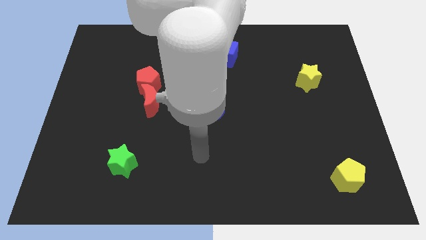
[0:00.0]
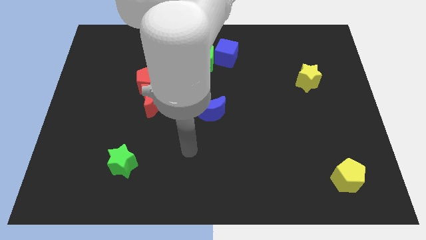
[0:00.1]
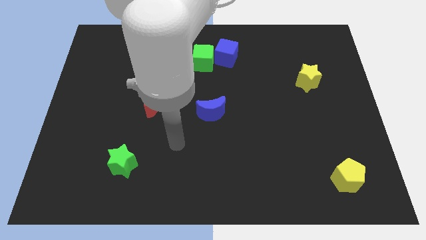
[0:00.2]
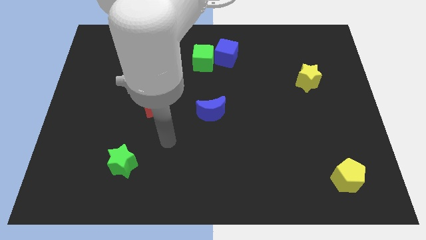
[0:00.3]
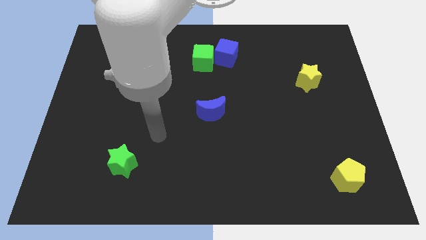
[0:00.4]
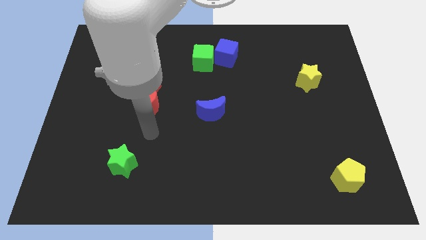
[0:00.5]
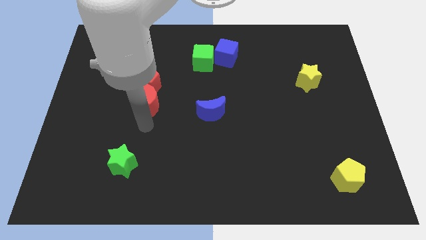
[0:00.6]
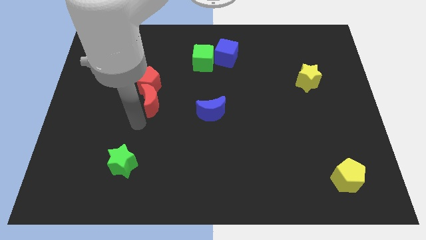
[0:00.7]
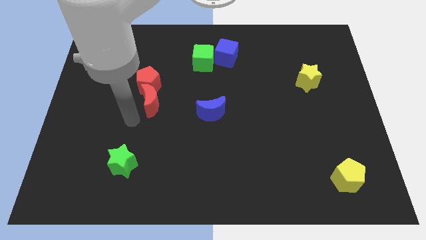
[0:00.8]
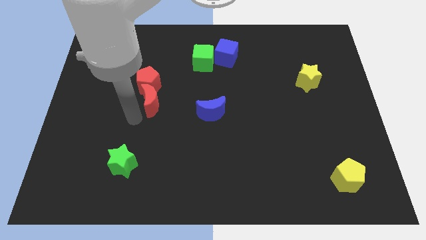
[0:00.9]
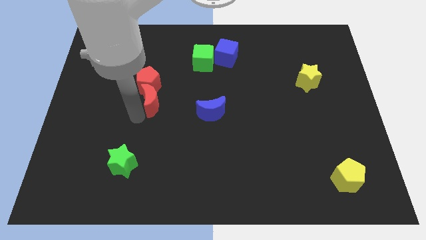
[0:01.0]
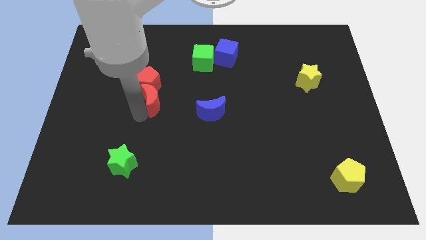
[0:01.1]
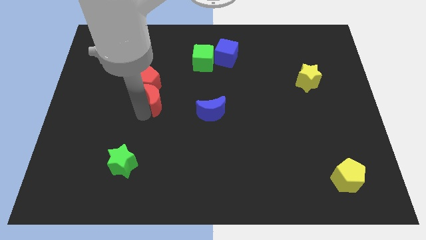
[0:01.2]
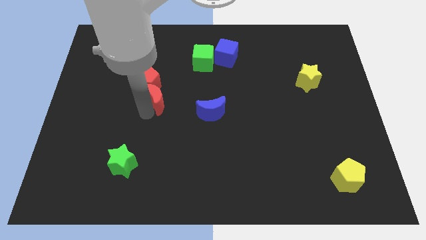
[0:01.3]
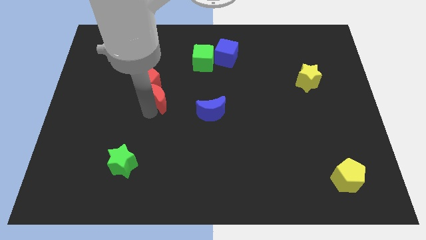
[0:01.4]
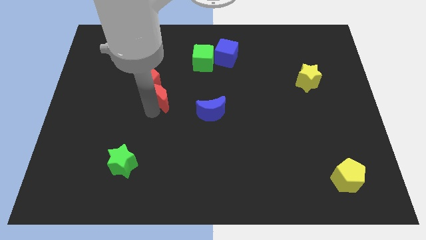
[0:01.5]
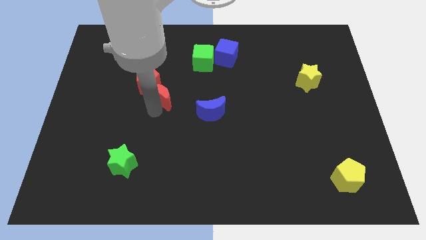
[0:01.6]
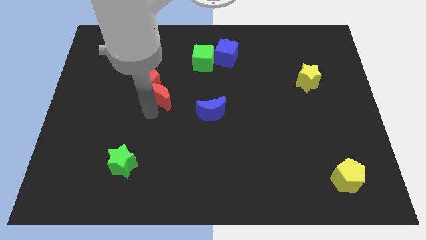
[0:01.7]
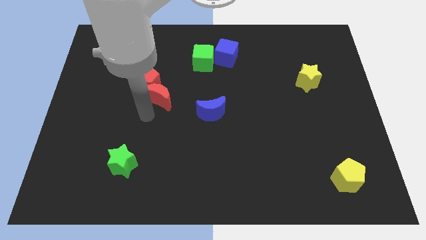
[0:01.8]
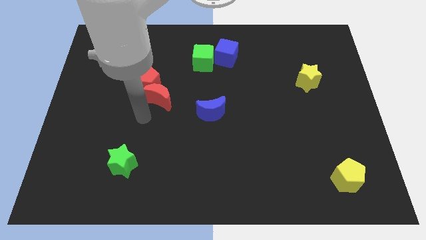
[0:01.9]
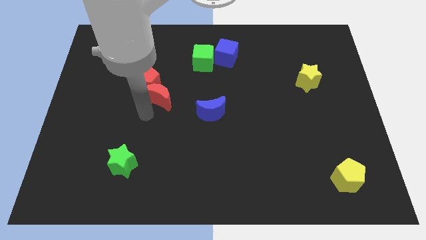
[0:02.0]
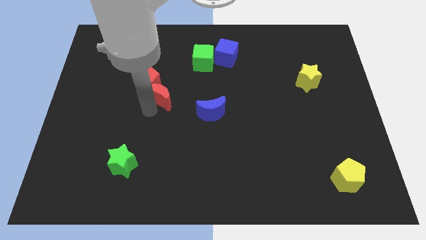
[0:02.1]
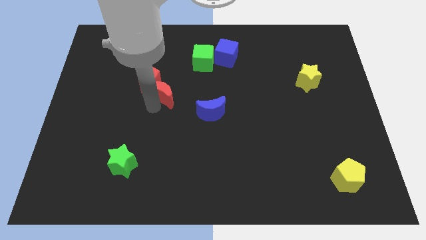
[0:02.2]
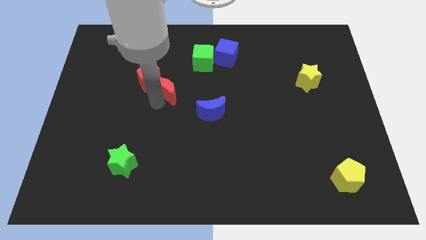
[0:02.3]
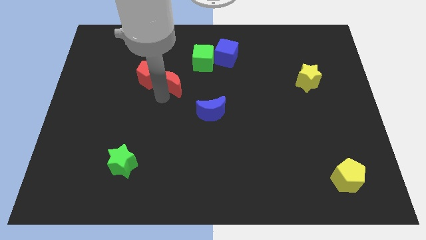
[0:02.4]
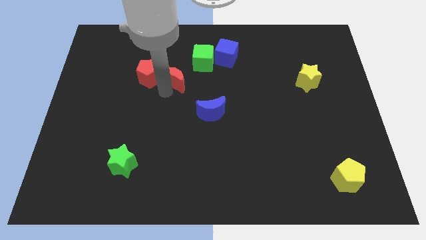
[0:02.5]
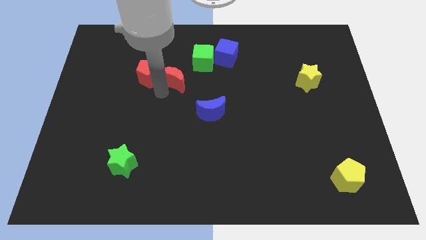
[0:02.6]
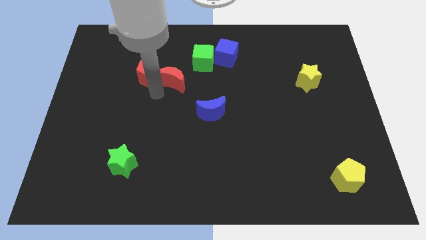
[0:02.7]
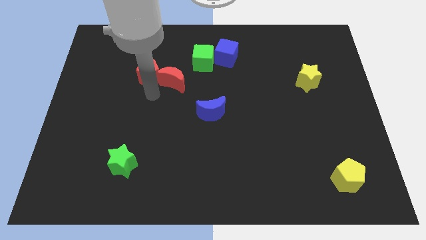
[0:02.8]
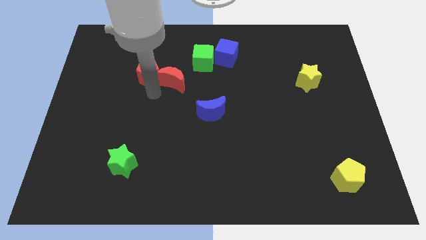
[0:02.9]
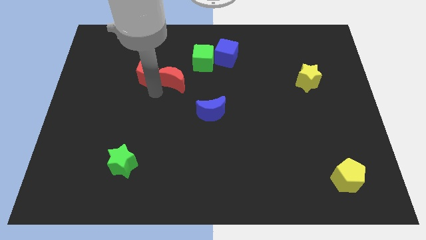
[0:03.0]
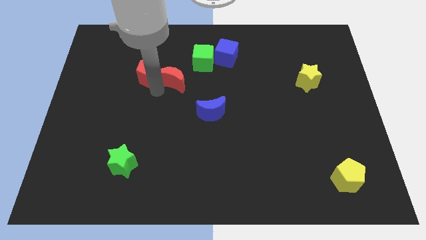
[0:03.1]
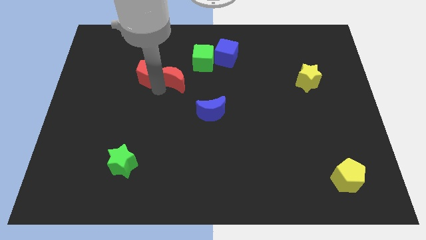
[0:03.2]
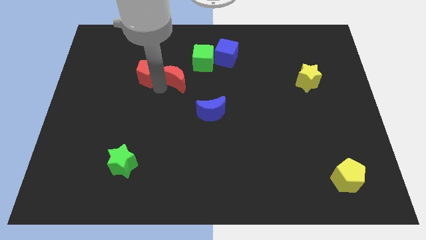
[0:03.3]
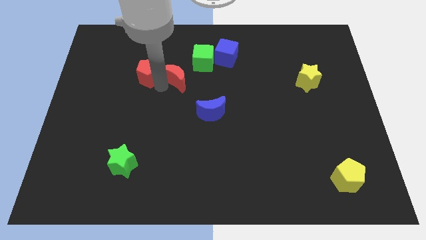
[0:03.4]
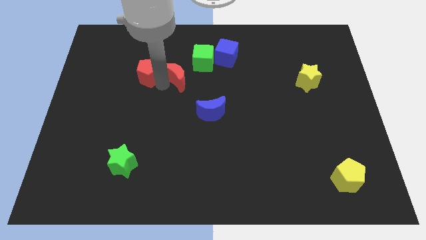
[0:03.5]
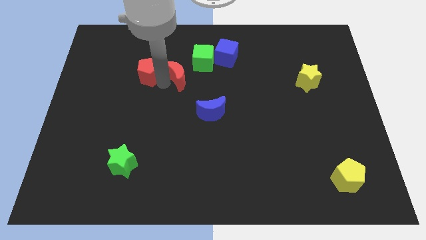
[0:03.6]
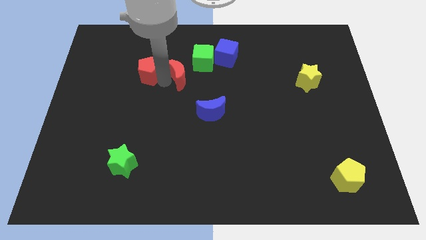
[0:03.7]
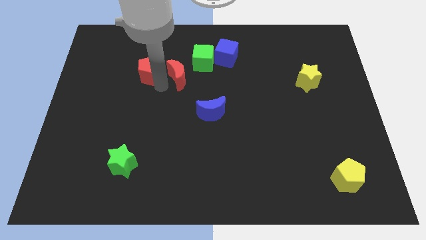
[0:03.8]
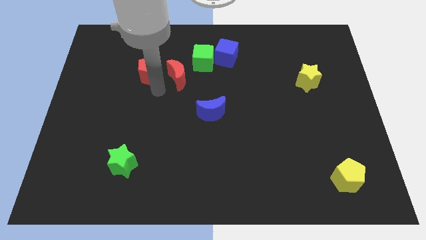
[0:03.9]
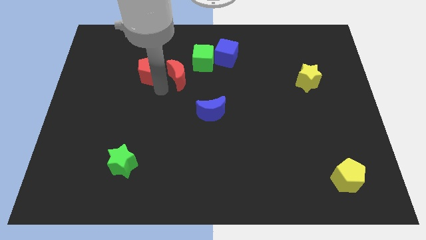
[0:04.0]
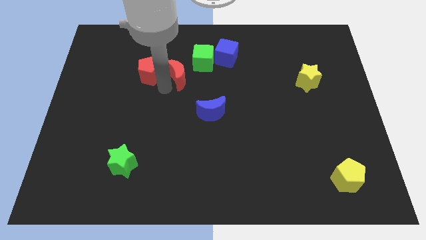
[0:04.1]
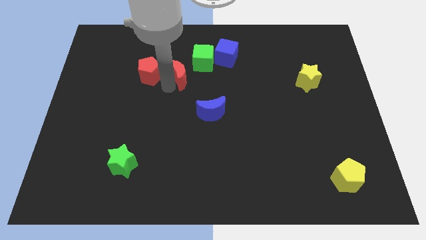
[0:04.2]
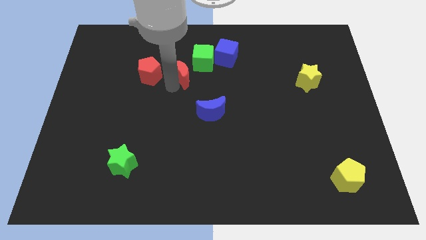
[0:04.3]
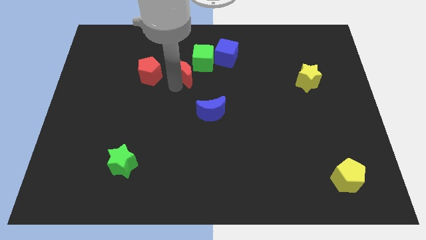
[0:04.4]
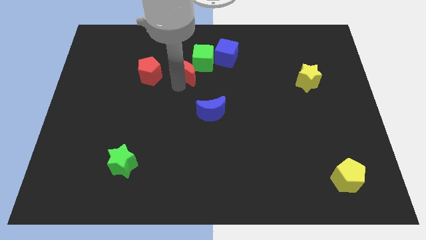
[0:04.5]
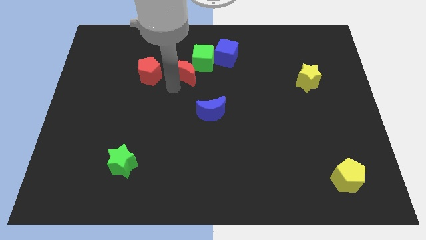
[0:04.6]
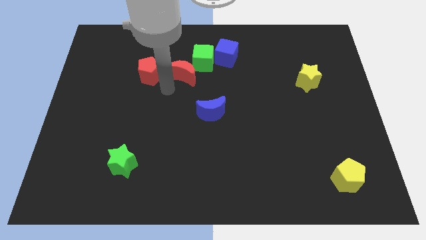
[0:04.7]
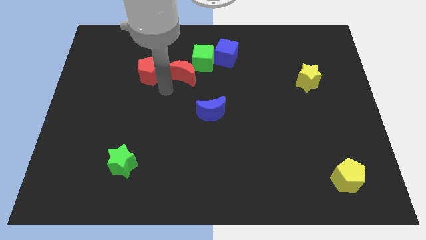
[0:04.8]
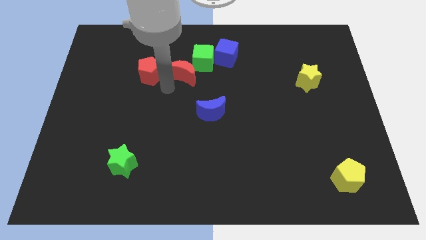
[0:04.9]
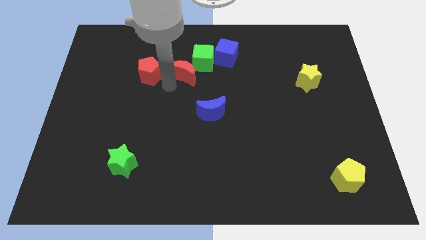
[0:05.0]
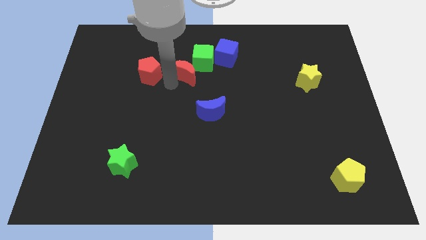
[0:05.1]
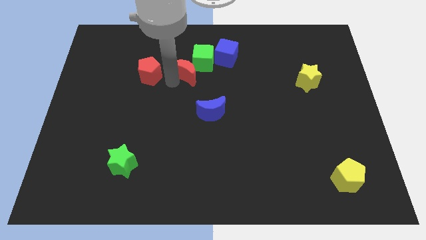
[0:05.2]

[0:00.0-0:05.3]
put the red moon towards the green cube

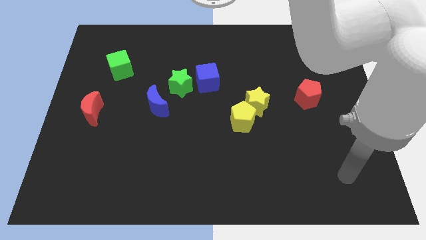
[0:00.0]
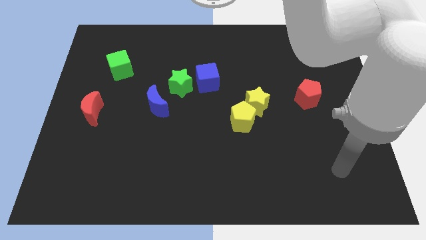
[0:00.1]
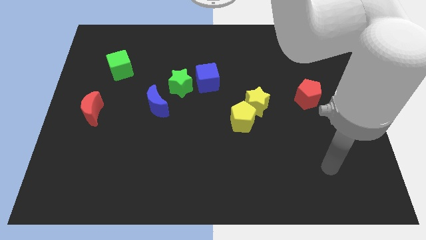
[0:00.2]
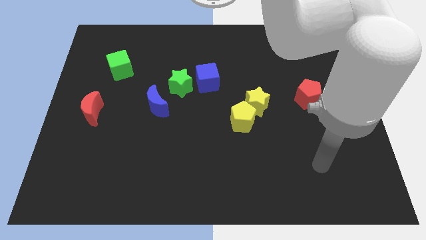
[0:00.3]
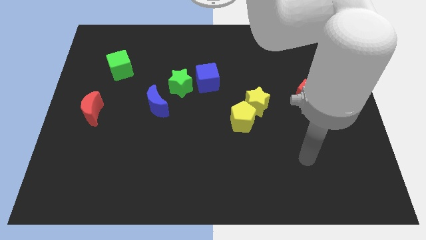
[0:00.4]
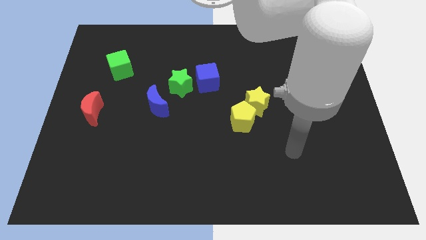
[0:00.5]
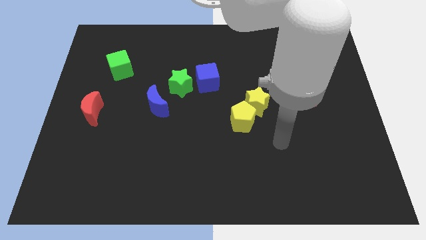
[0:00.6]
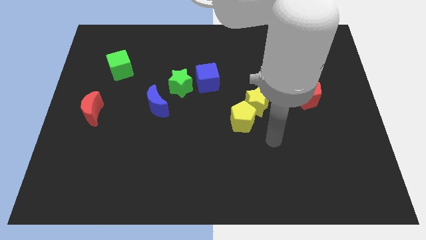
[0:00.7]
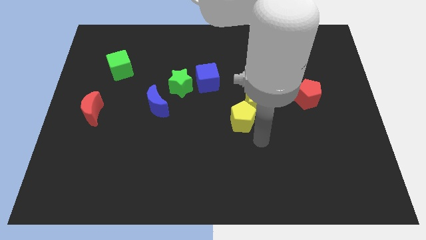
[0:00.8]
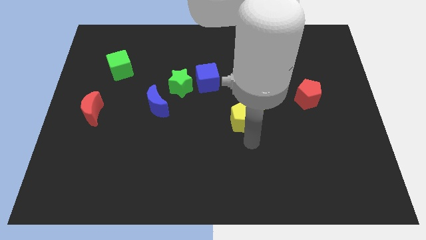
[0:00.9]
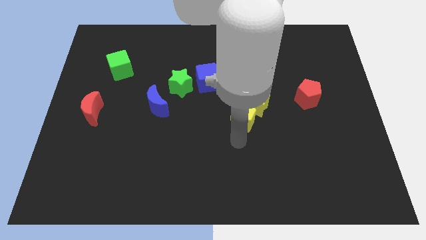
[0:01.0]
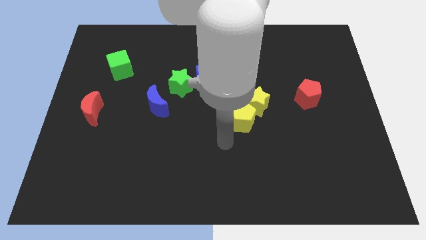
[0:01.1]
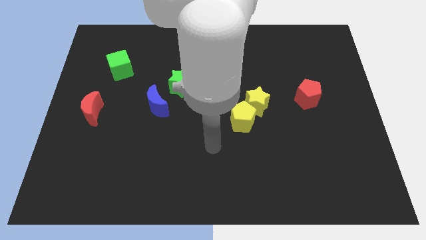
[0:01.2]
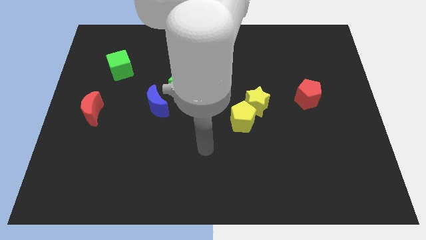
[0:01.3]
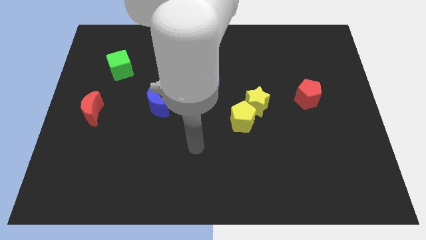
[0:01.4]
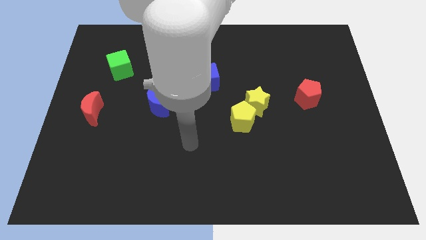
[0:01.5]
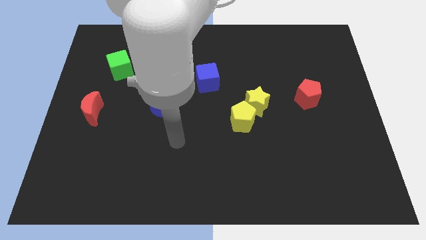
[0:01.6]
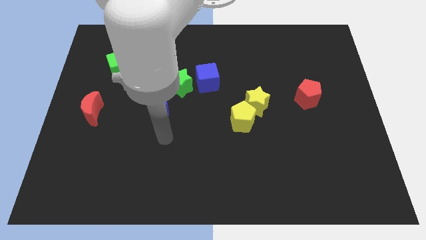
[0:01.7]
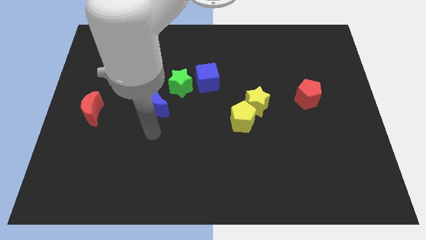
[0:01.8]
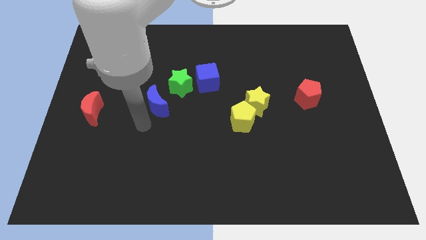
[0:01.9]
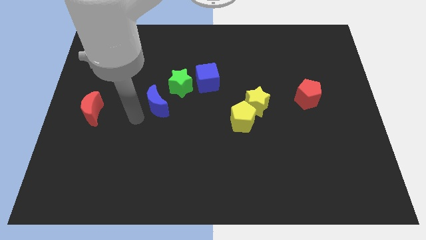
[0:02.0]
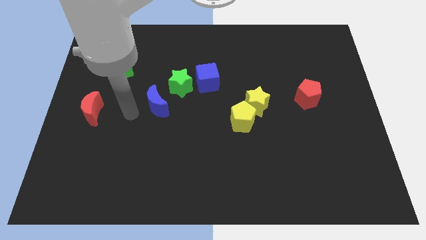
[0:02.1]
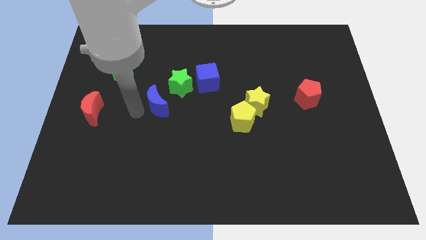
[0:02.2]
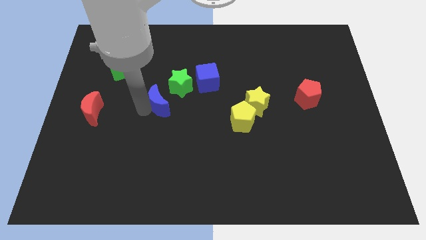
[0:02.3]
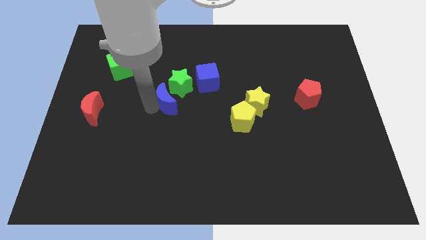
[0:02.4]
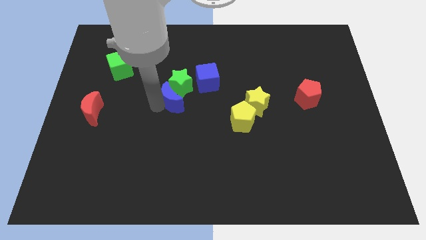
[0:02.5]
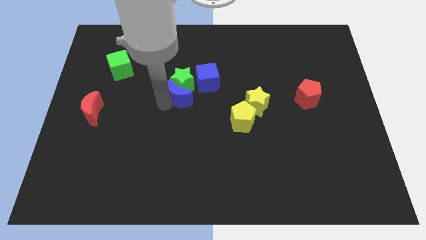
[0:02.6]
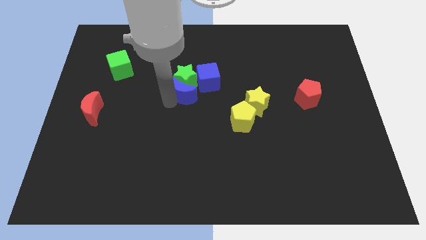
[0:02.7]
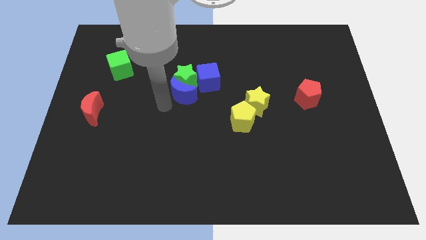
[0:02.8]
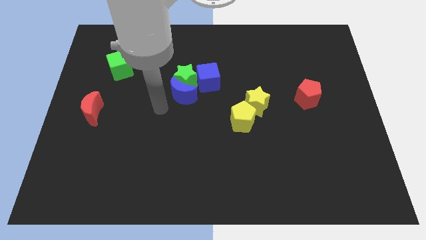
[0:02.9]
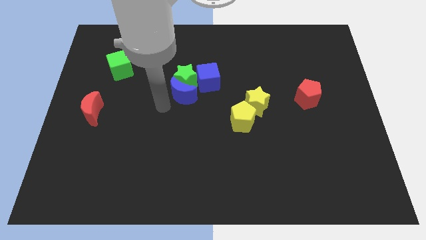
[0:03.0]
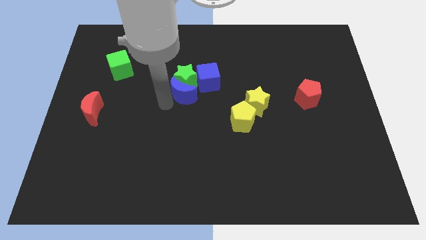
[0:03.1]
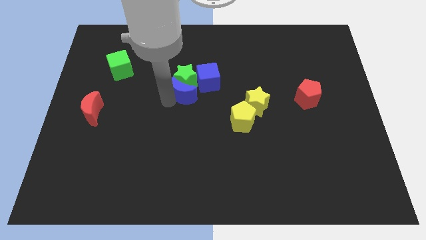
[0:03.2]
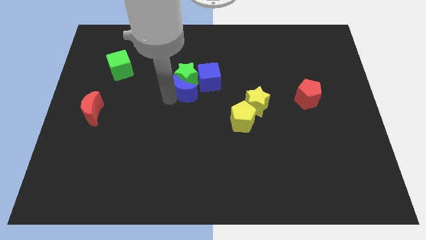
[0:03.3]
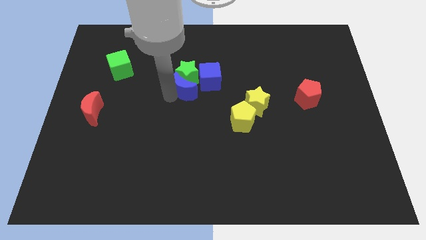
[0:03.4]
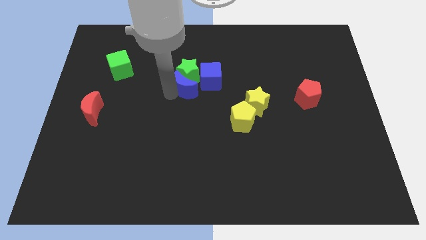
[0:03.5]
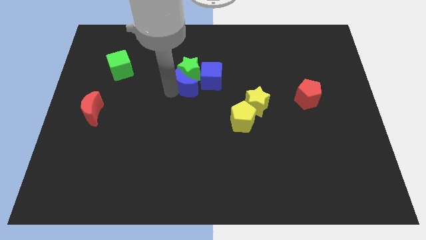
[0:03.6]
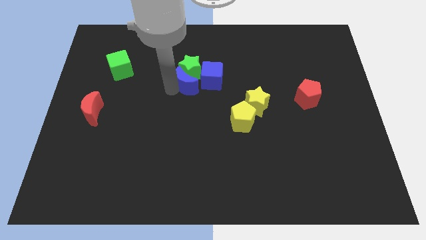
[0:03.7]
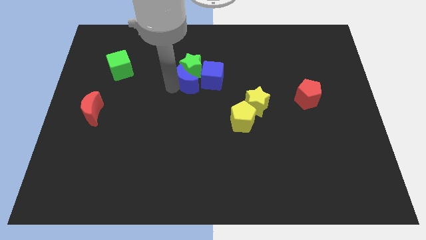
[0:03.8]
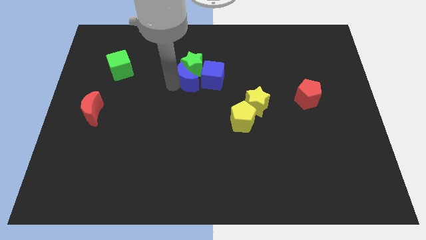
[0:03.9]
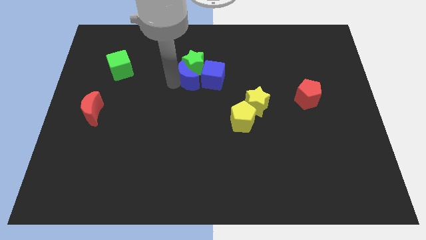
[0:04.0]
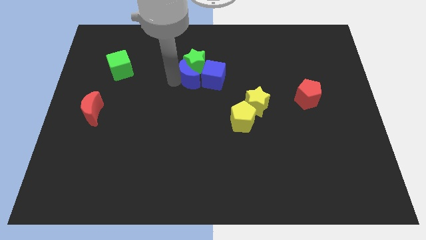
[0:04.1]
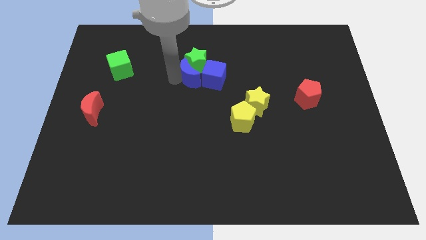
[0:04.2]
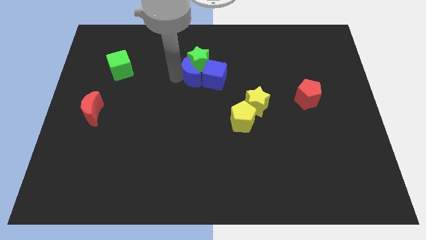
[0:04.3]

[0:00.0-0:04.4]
move the blue moon next to the blue cube
